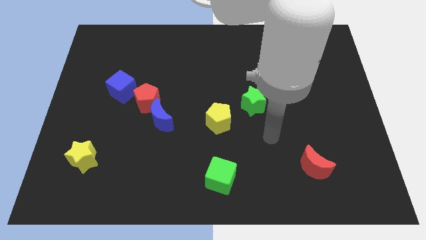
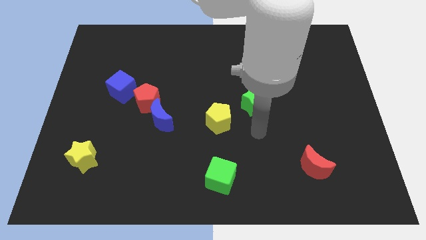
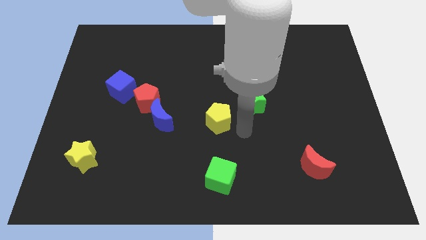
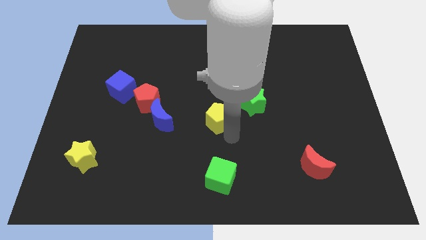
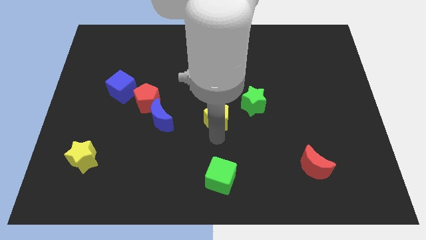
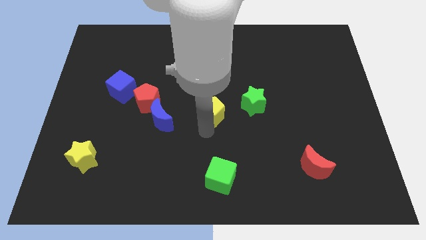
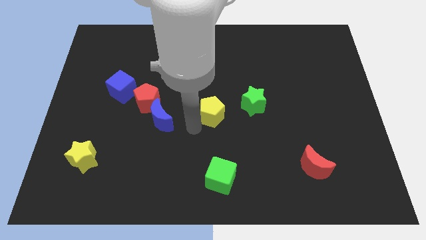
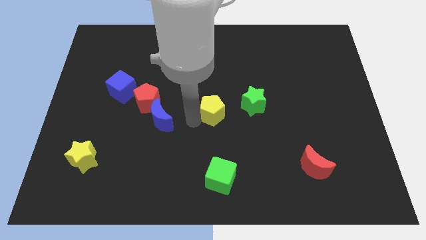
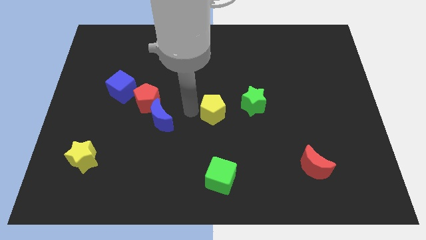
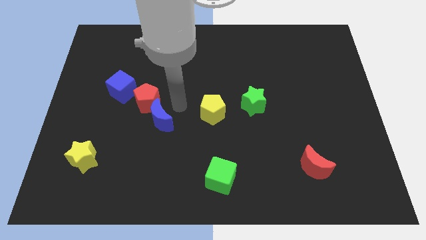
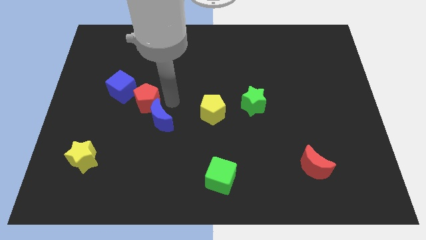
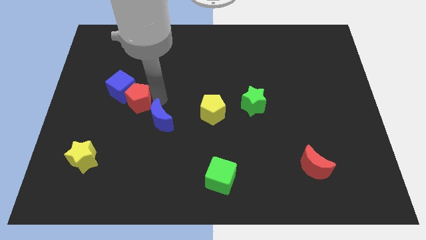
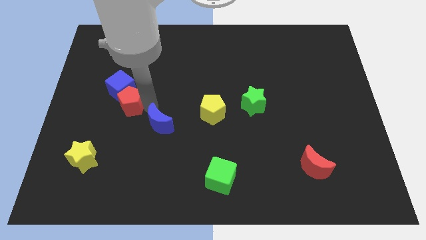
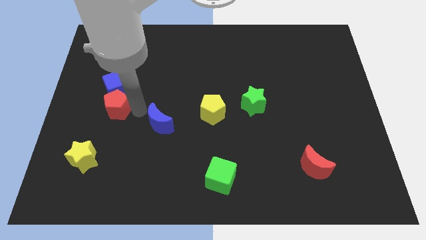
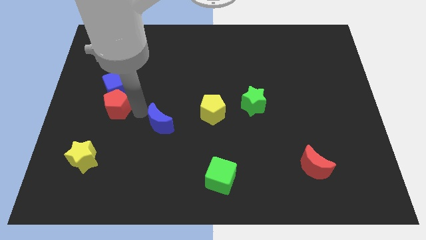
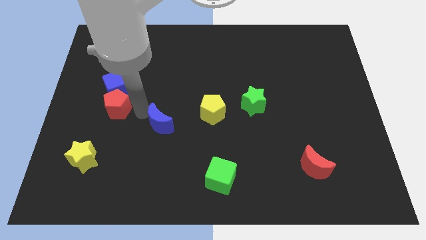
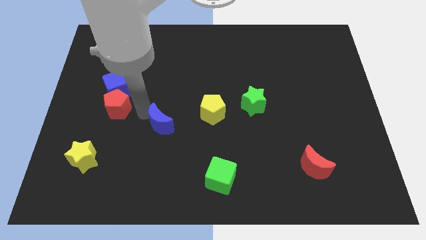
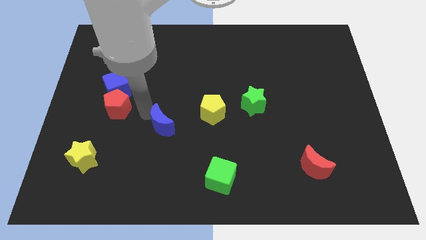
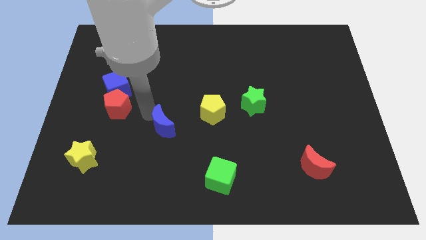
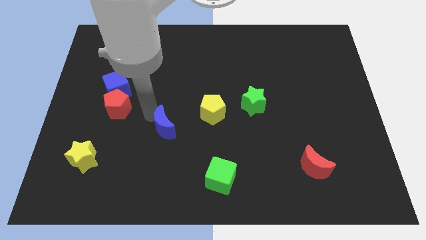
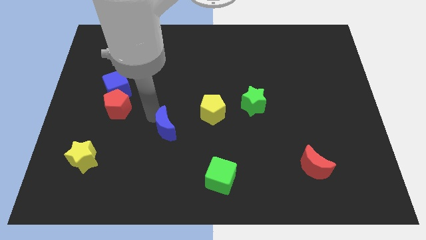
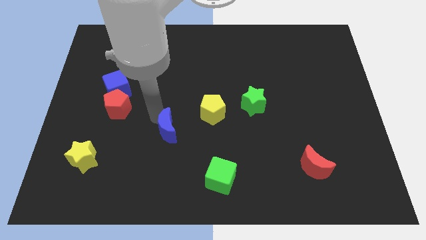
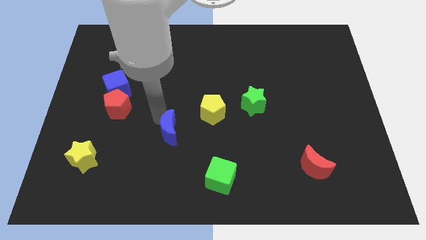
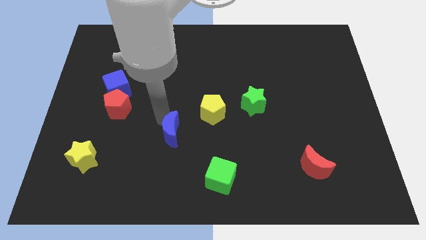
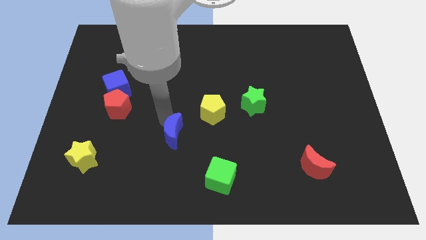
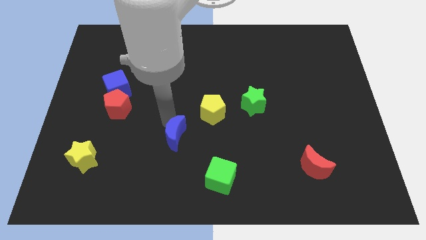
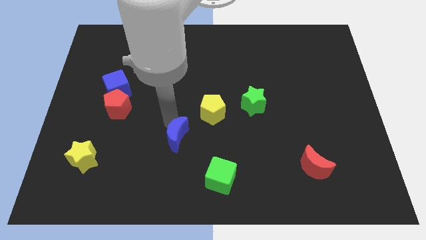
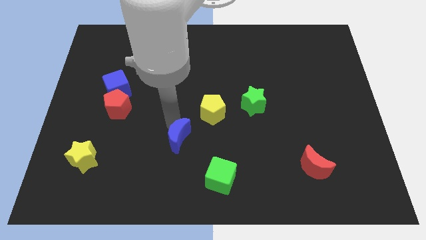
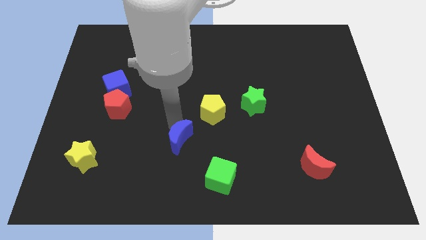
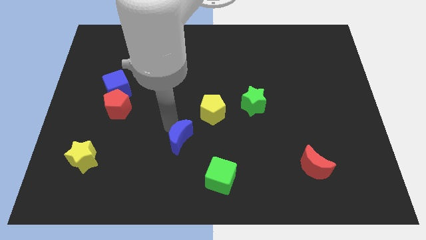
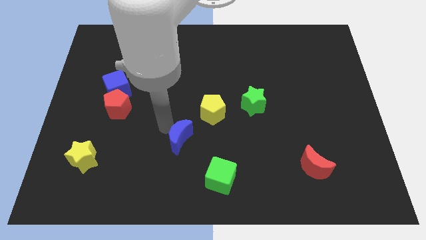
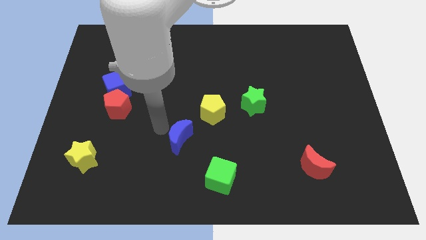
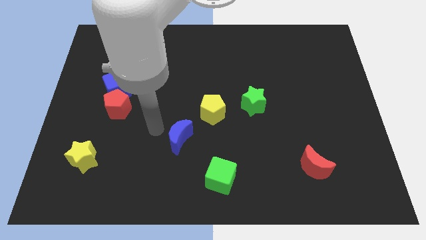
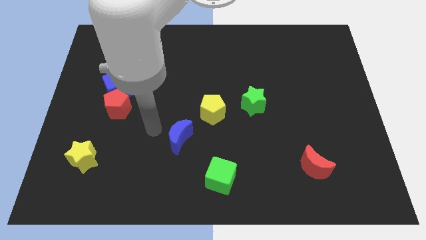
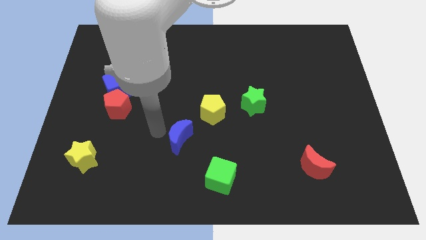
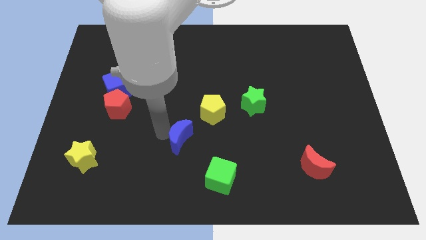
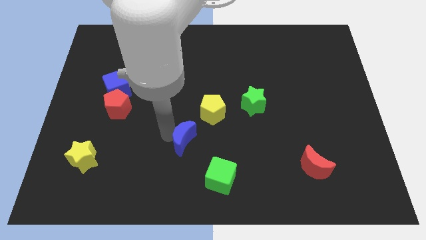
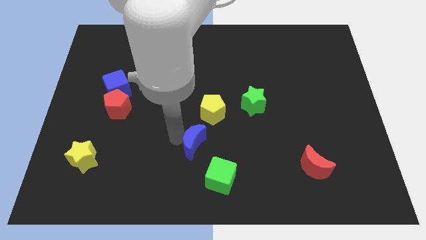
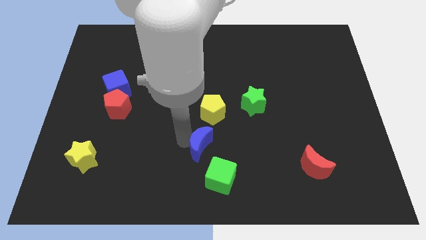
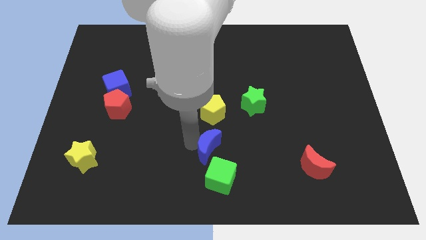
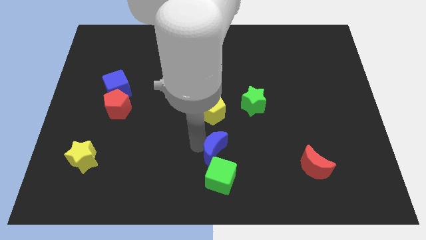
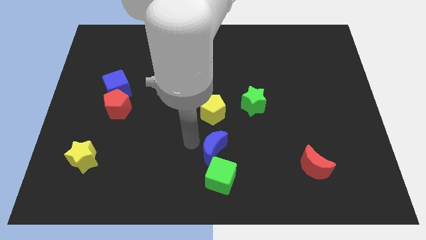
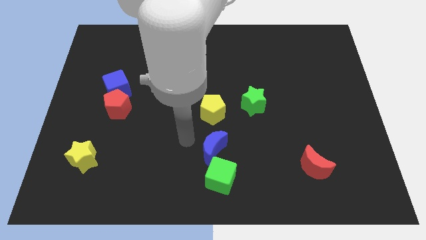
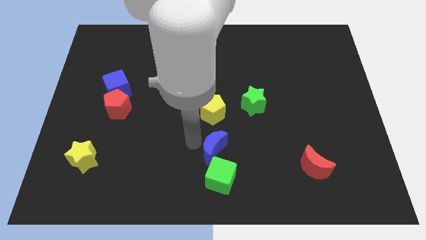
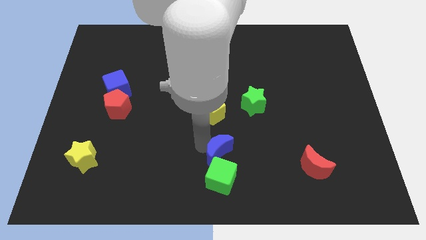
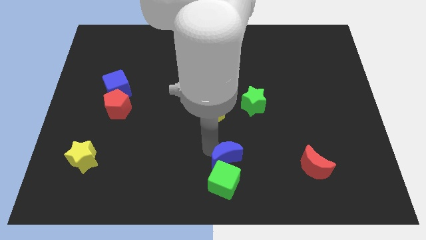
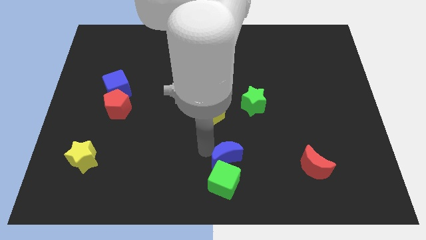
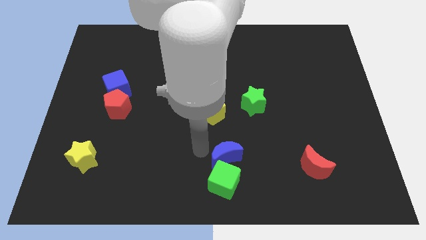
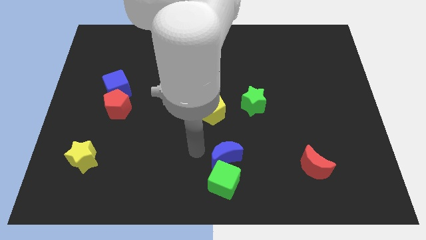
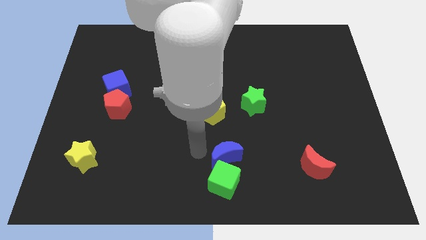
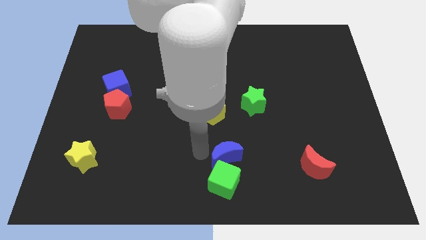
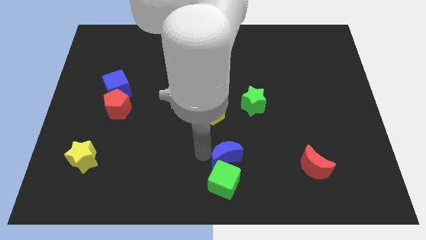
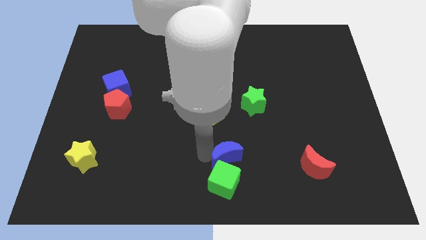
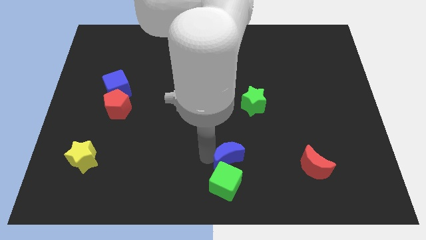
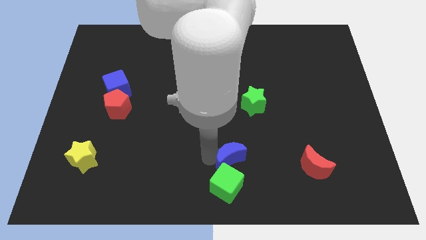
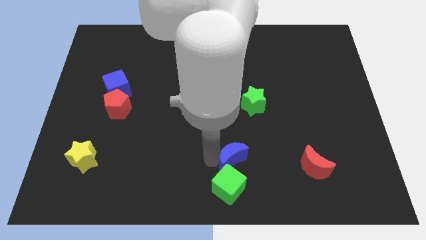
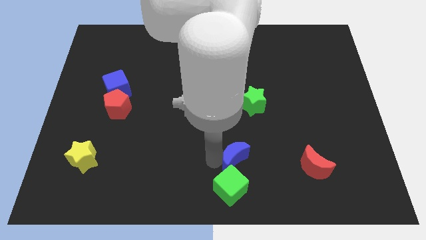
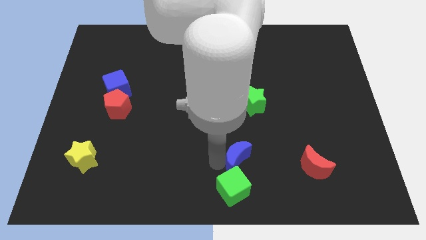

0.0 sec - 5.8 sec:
push the blue moon to the left of the red moon

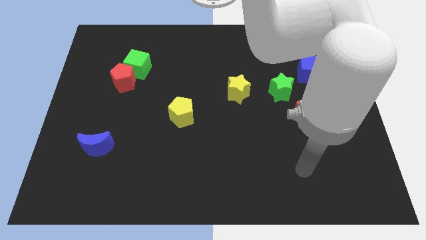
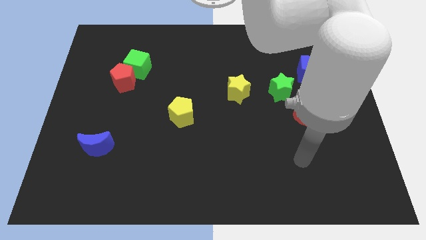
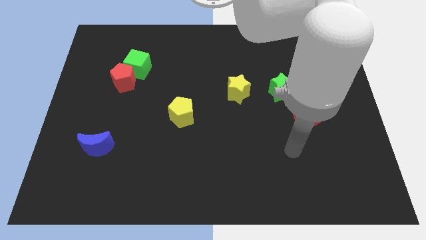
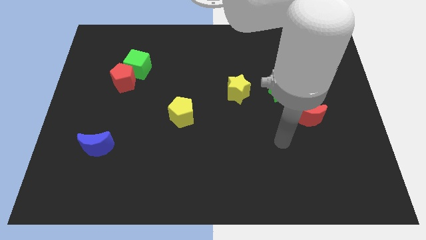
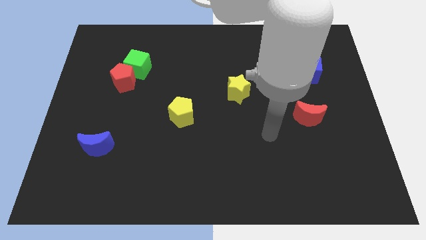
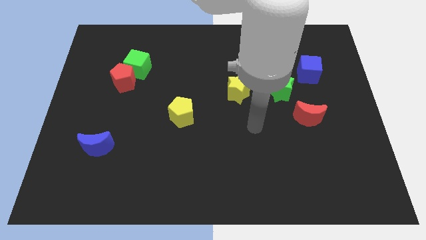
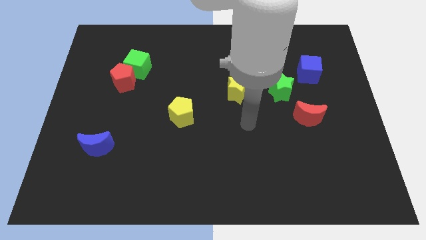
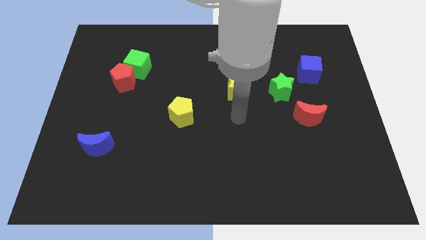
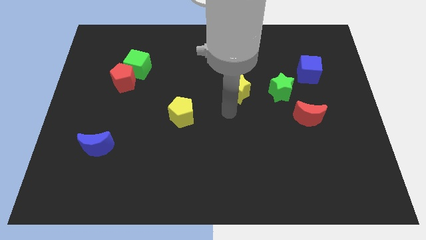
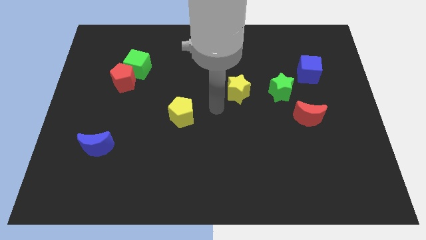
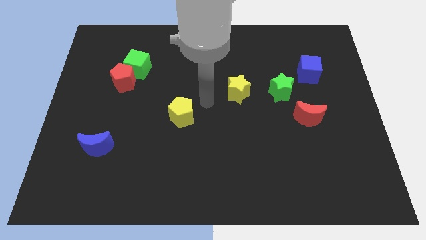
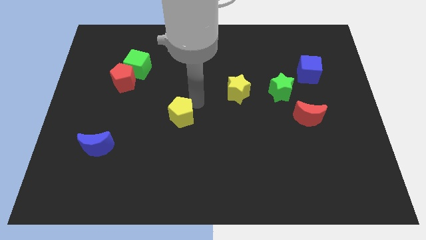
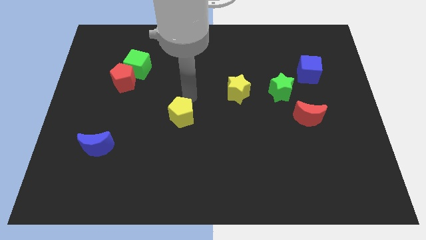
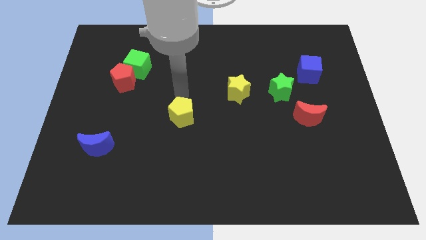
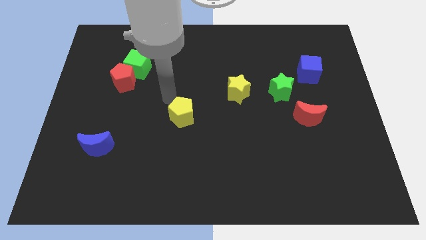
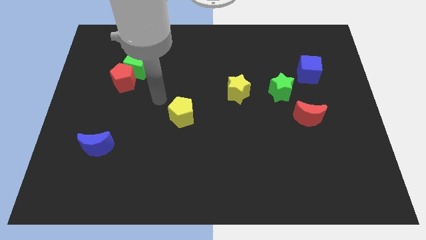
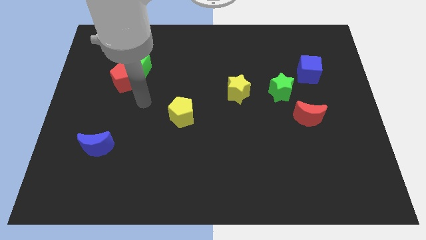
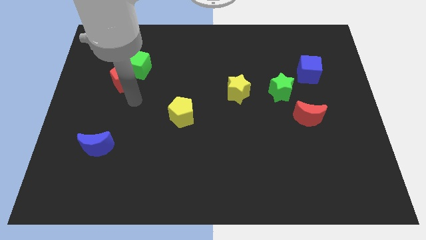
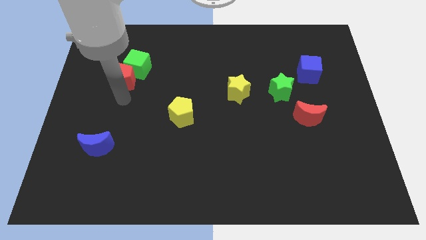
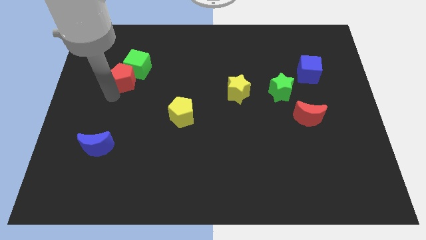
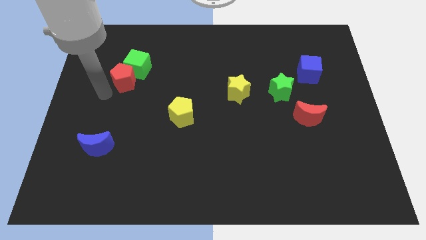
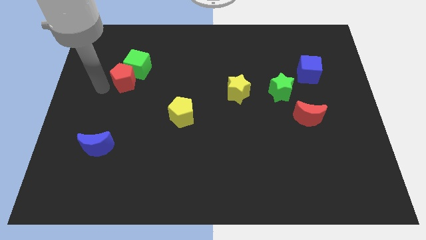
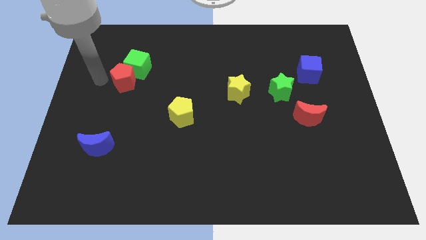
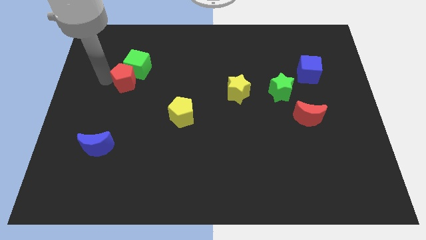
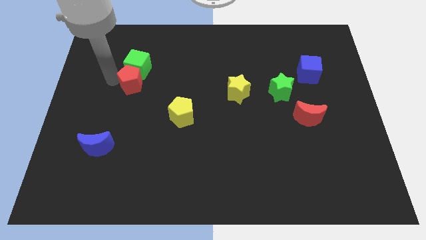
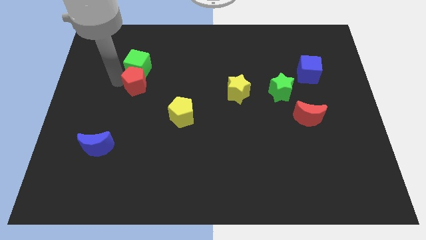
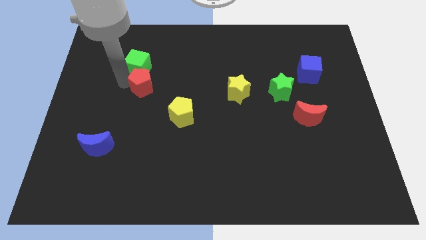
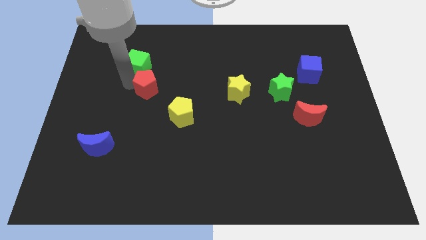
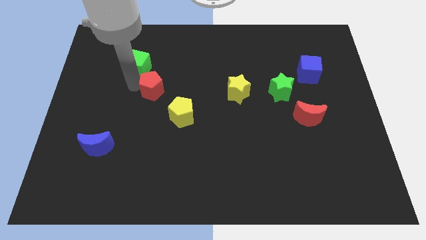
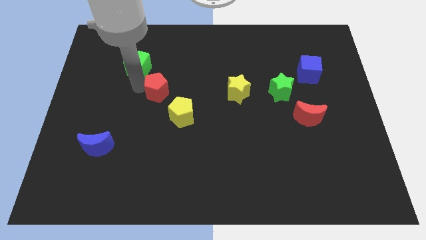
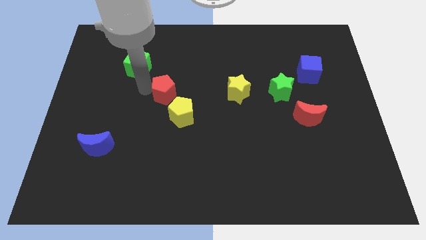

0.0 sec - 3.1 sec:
push the red pentagon above the yellow pentagon
